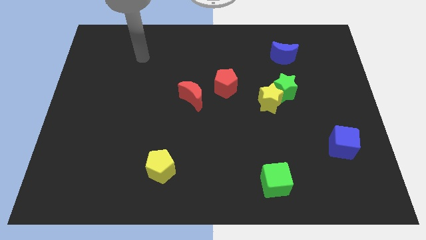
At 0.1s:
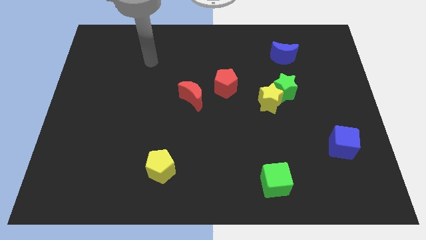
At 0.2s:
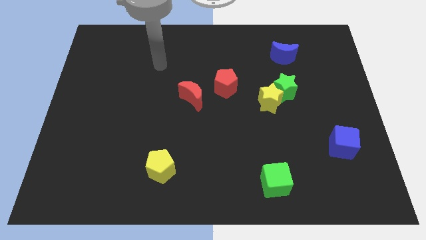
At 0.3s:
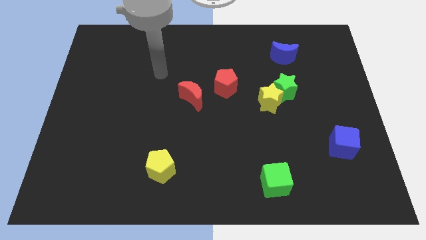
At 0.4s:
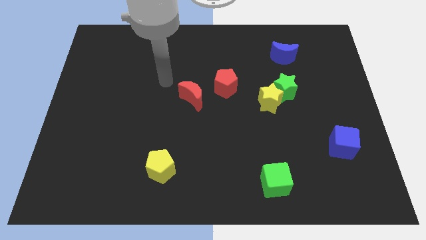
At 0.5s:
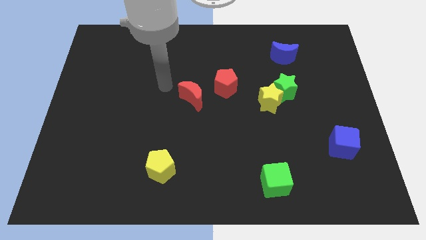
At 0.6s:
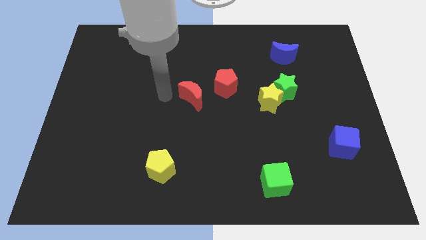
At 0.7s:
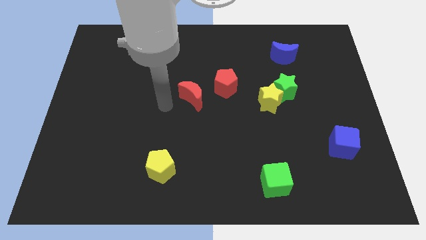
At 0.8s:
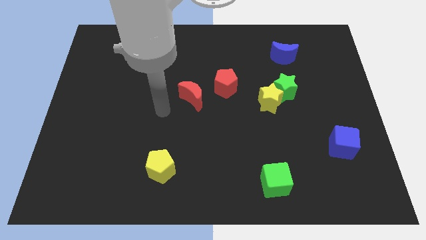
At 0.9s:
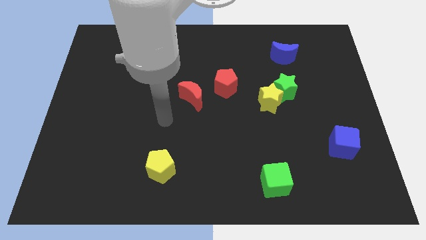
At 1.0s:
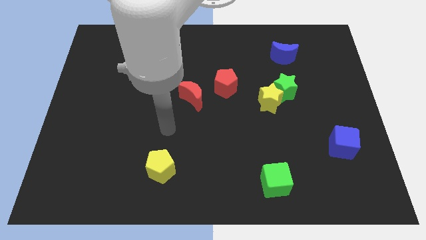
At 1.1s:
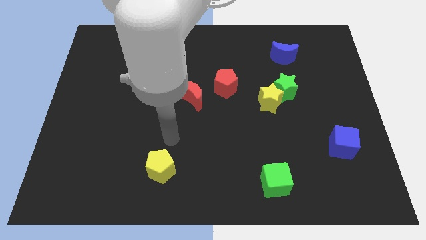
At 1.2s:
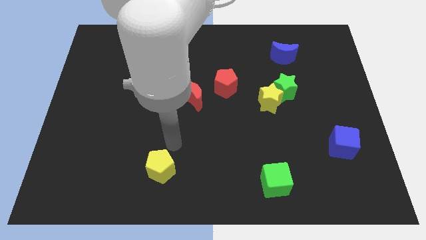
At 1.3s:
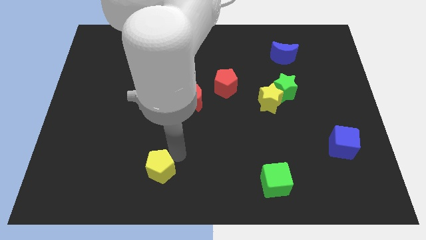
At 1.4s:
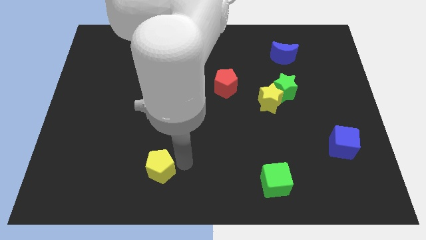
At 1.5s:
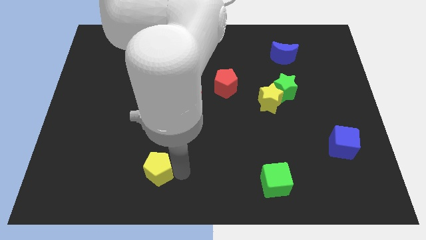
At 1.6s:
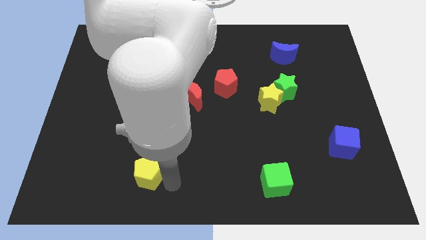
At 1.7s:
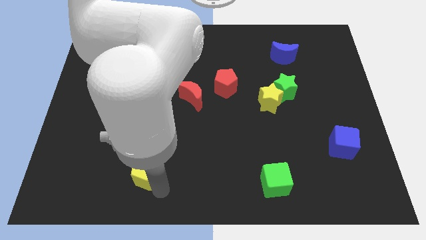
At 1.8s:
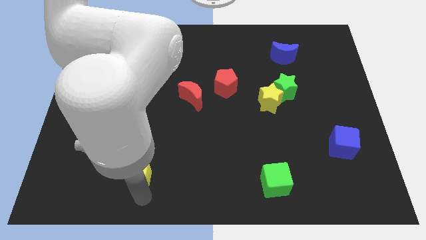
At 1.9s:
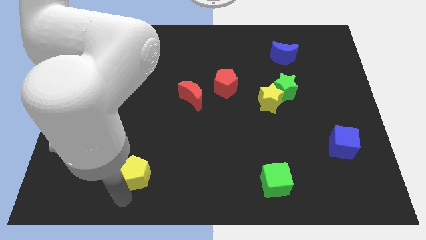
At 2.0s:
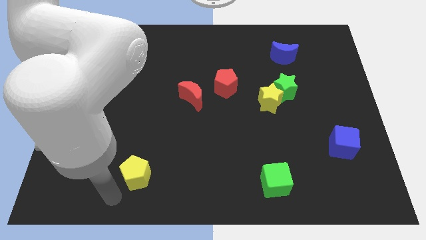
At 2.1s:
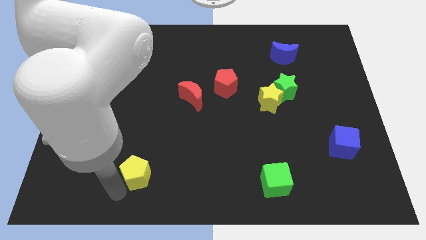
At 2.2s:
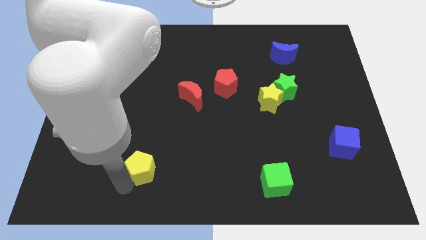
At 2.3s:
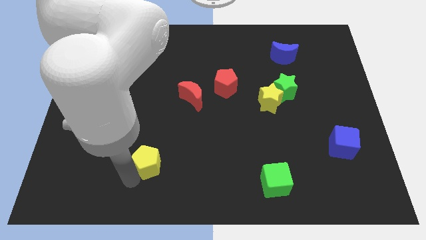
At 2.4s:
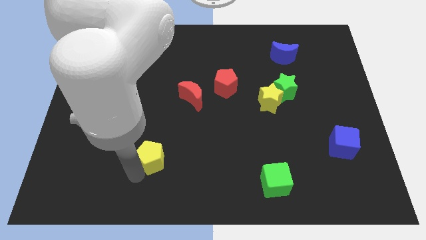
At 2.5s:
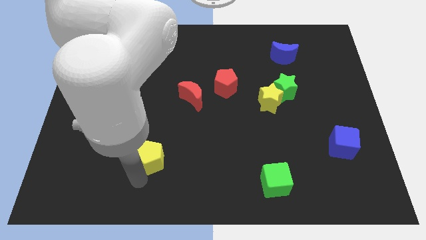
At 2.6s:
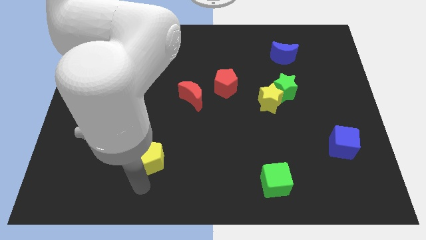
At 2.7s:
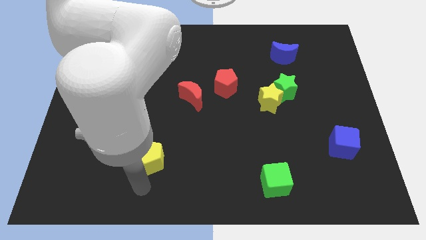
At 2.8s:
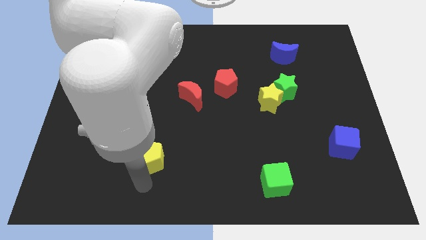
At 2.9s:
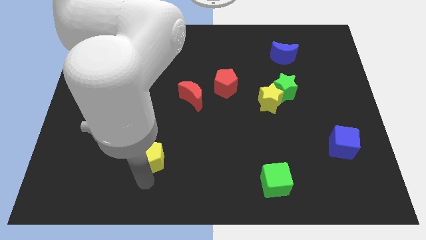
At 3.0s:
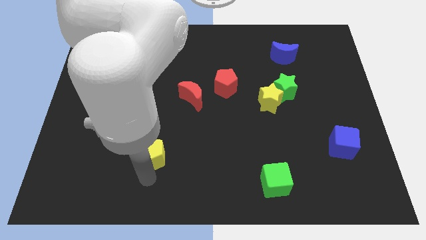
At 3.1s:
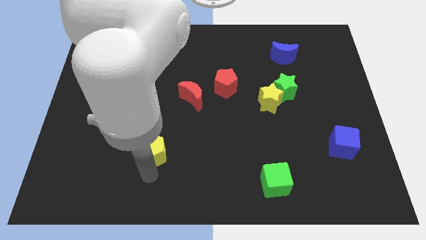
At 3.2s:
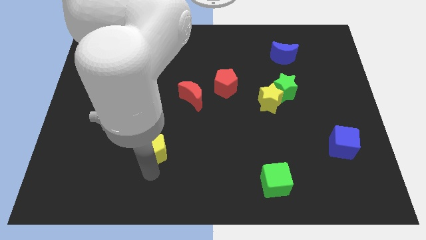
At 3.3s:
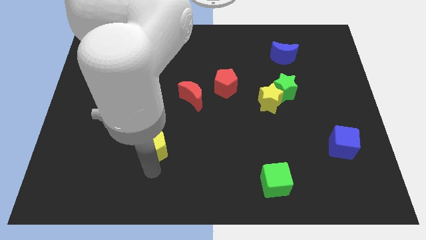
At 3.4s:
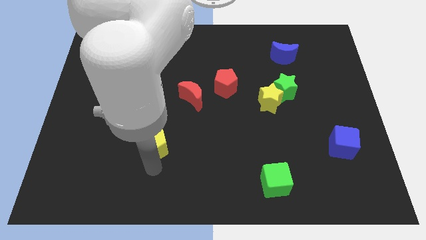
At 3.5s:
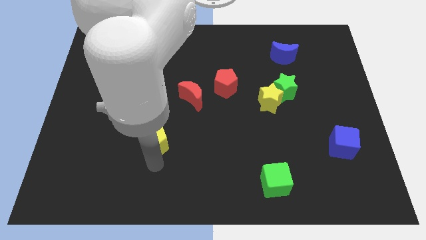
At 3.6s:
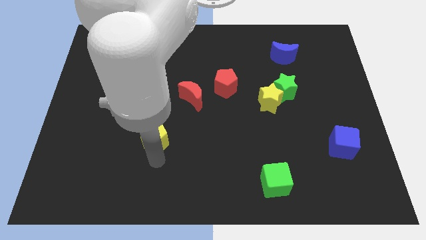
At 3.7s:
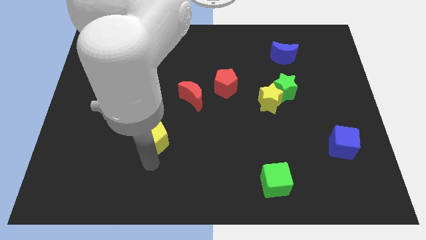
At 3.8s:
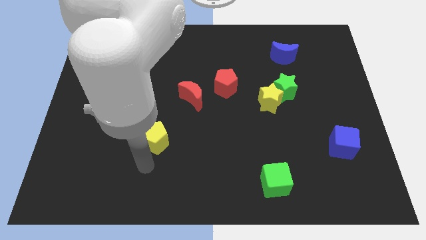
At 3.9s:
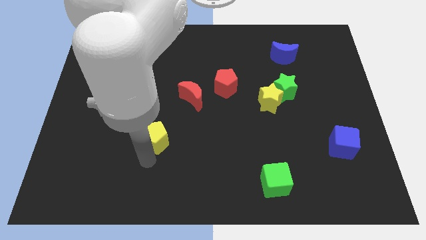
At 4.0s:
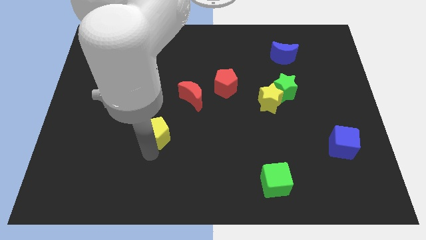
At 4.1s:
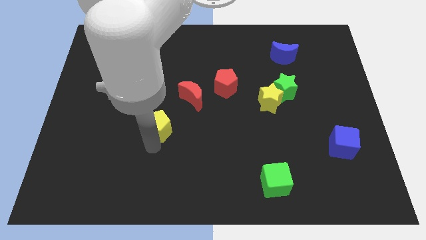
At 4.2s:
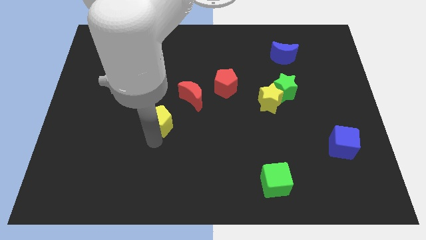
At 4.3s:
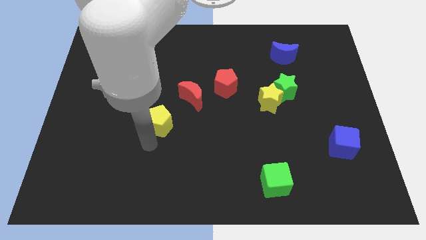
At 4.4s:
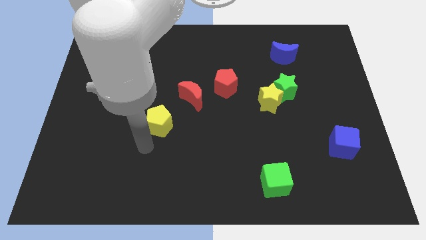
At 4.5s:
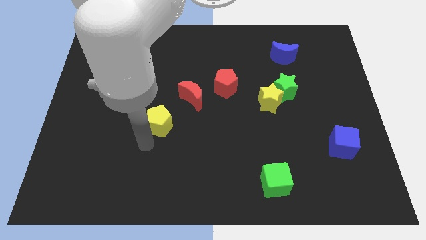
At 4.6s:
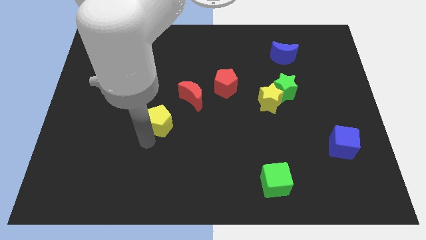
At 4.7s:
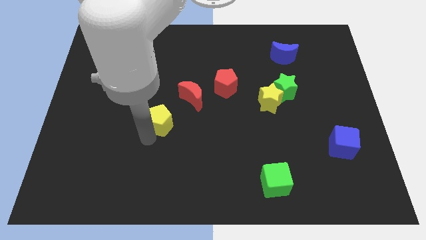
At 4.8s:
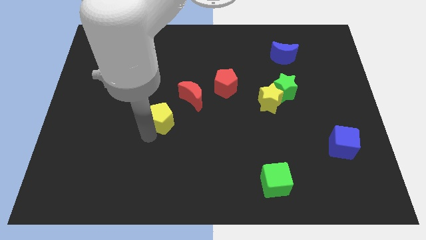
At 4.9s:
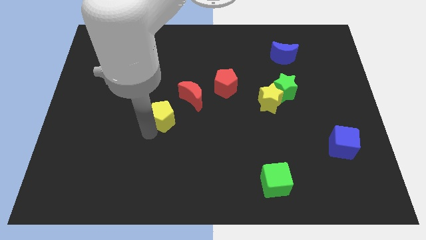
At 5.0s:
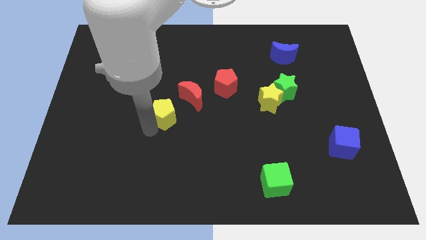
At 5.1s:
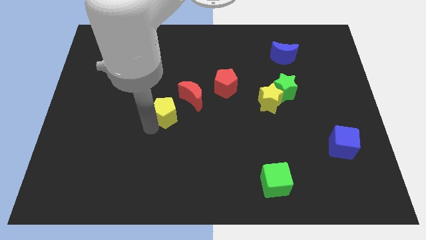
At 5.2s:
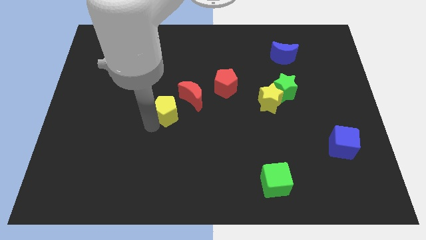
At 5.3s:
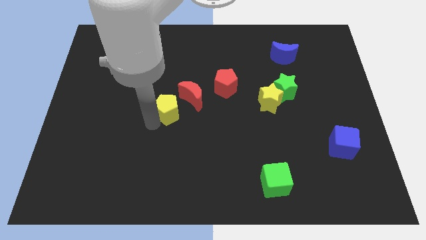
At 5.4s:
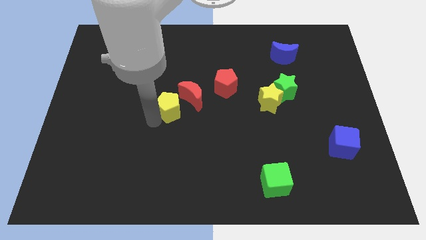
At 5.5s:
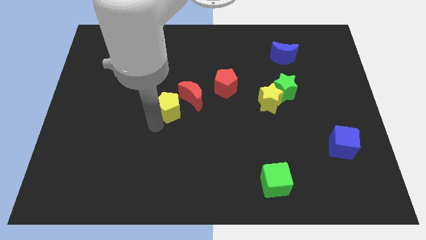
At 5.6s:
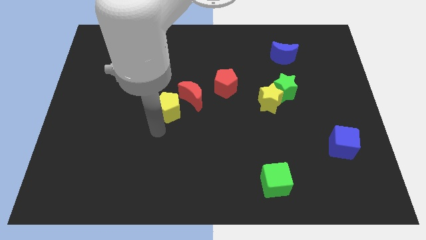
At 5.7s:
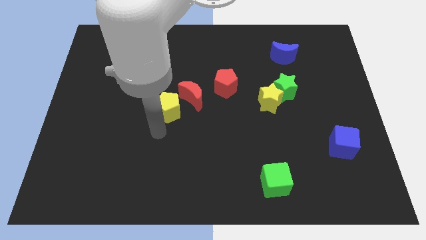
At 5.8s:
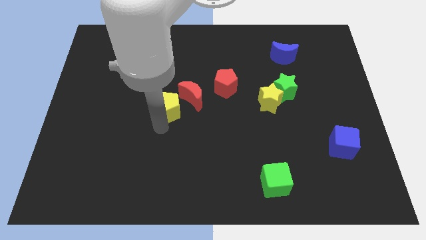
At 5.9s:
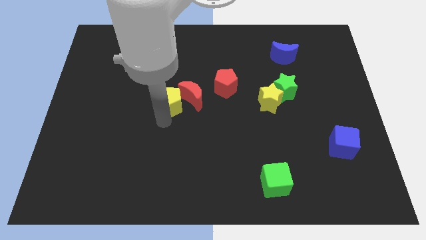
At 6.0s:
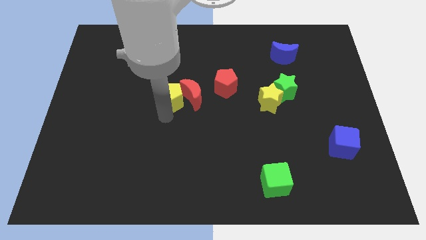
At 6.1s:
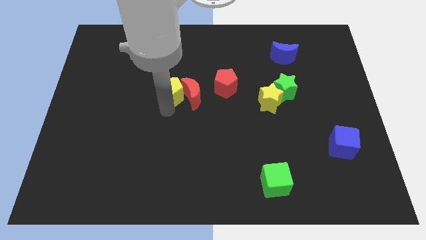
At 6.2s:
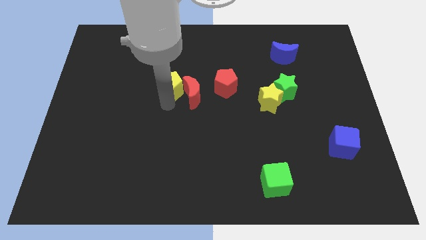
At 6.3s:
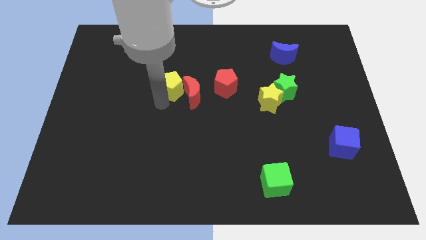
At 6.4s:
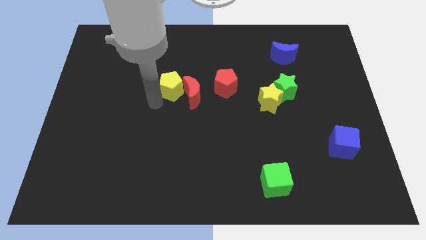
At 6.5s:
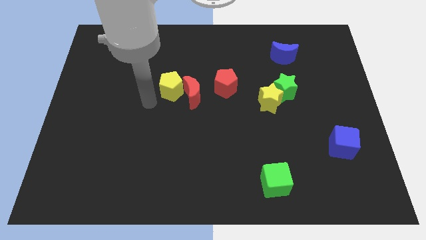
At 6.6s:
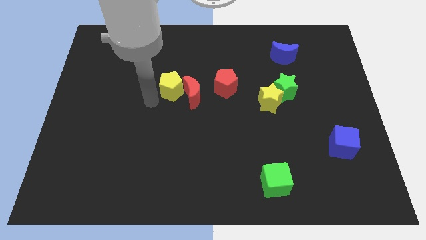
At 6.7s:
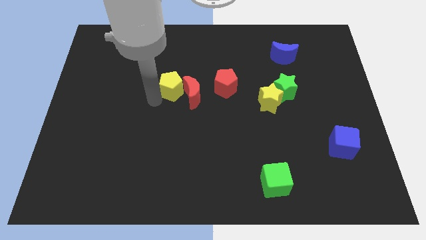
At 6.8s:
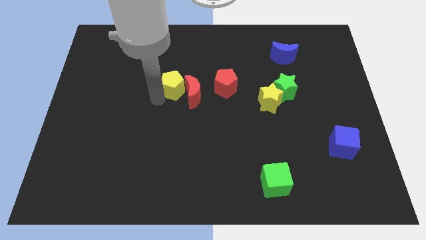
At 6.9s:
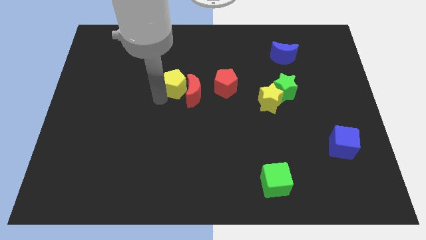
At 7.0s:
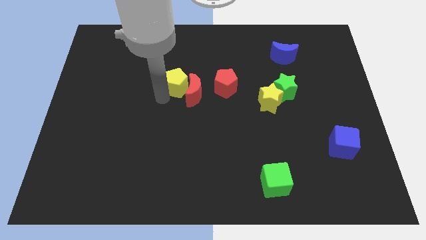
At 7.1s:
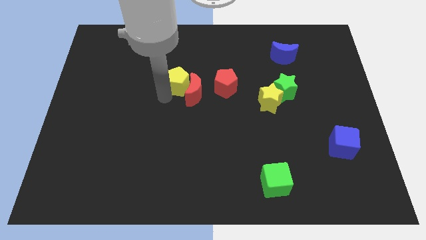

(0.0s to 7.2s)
slide the yellow pentagon above the red moon

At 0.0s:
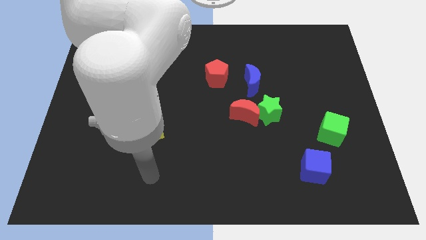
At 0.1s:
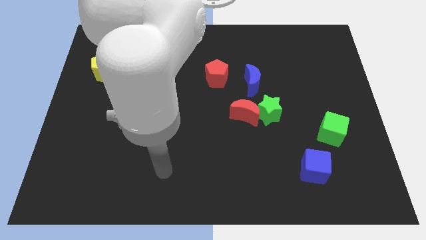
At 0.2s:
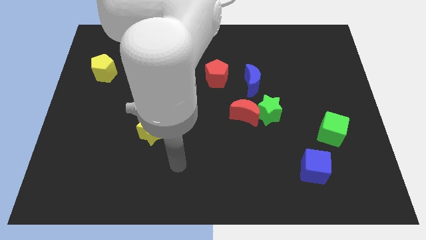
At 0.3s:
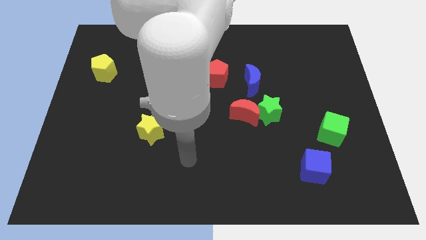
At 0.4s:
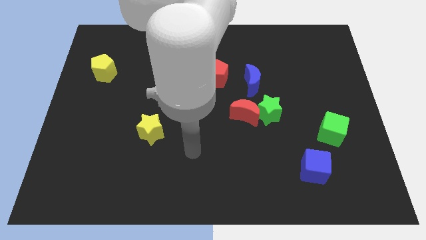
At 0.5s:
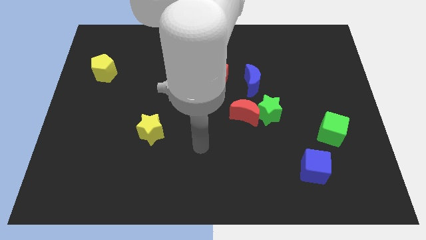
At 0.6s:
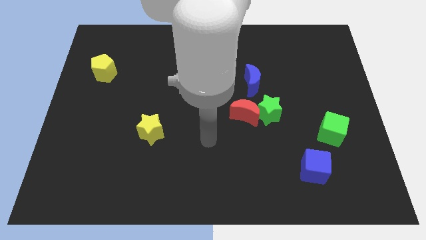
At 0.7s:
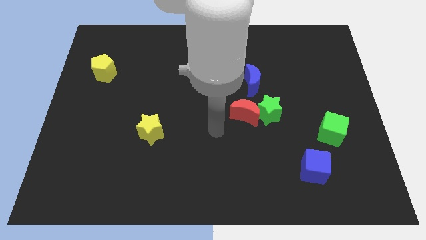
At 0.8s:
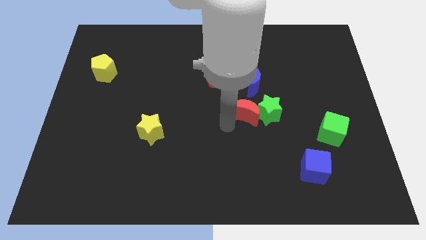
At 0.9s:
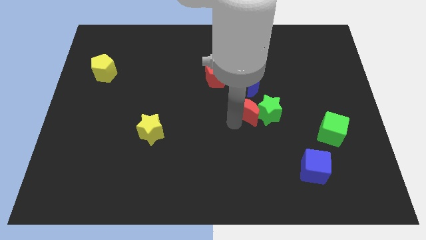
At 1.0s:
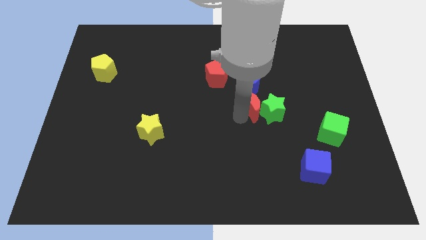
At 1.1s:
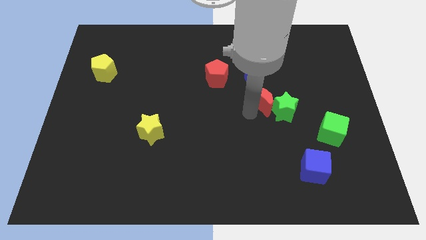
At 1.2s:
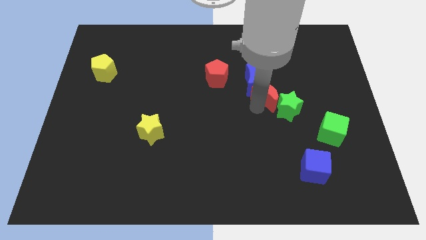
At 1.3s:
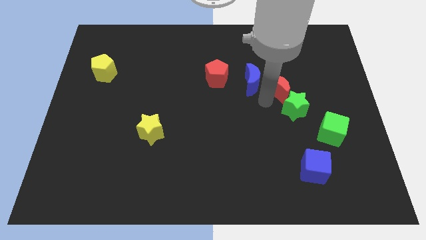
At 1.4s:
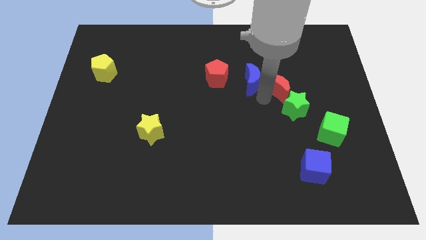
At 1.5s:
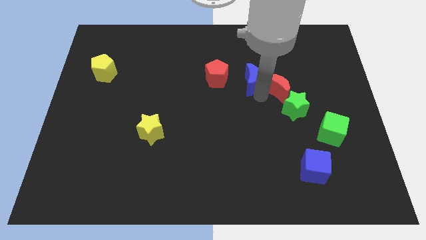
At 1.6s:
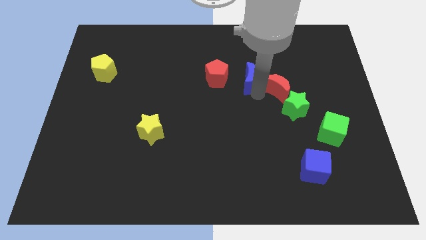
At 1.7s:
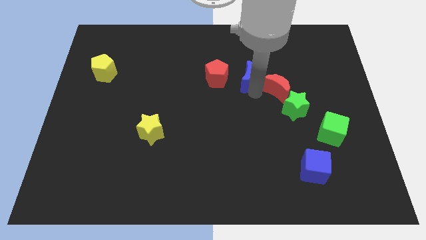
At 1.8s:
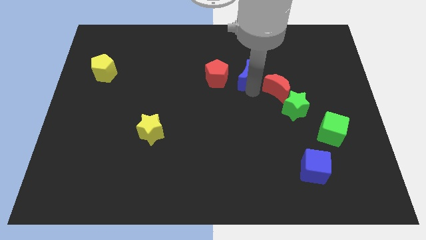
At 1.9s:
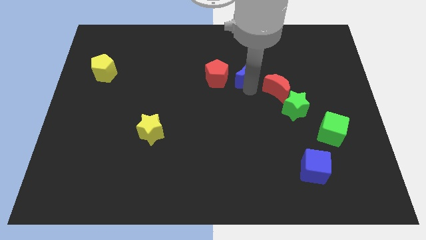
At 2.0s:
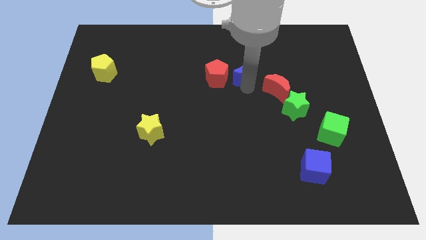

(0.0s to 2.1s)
move the blue moon to the top right of the red pentagon
